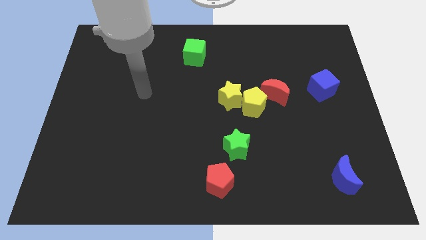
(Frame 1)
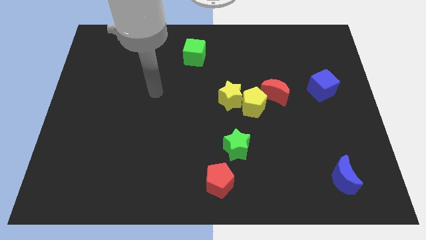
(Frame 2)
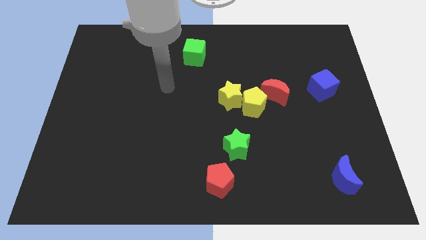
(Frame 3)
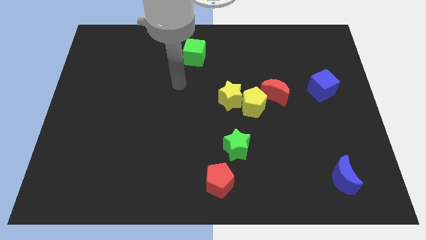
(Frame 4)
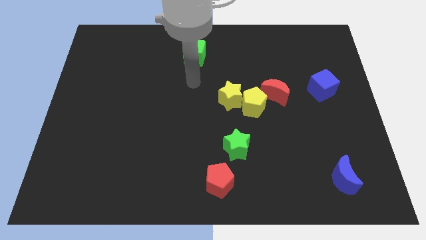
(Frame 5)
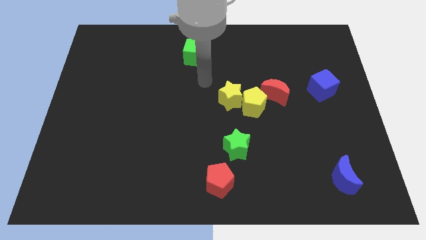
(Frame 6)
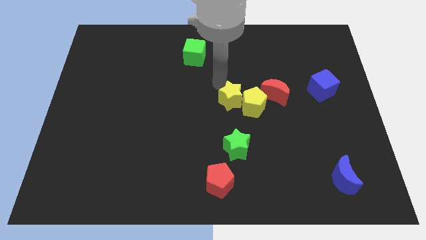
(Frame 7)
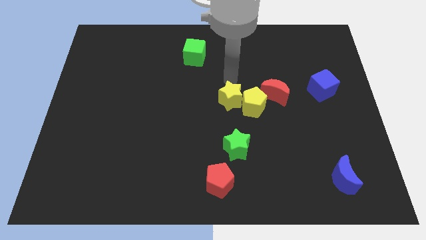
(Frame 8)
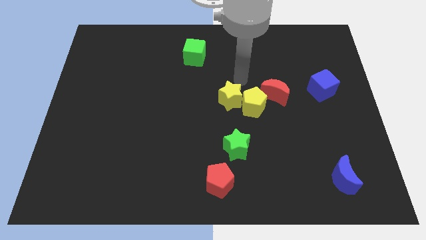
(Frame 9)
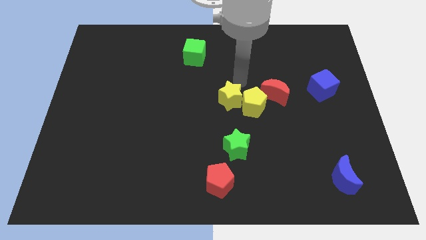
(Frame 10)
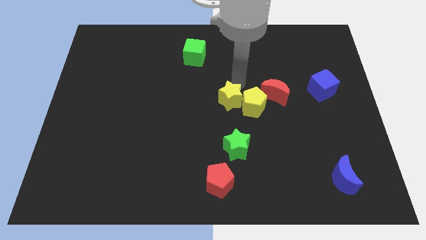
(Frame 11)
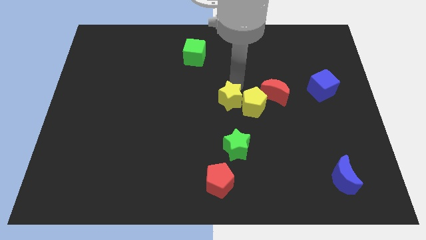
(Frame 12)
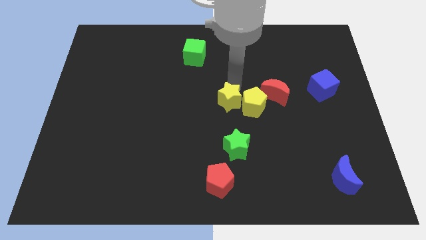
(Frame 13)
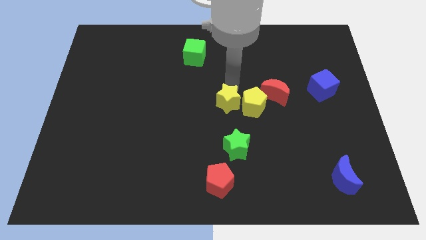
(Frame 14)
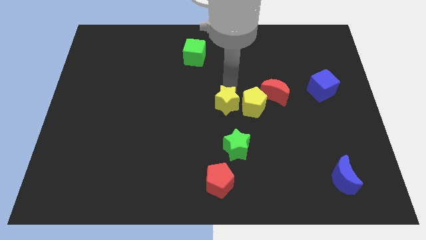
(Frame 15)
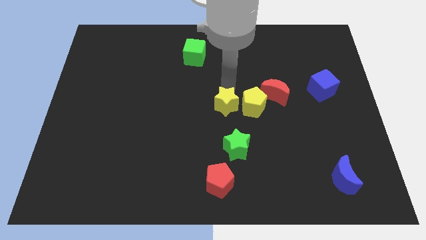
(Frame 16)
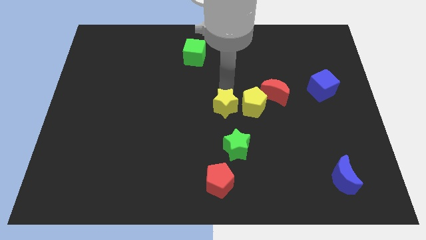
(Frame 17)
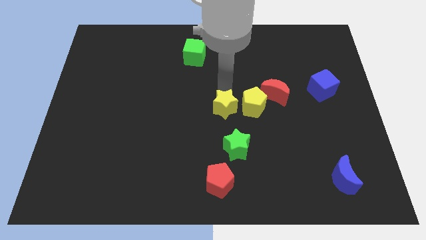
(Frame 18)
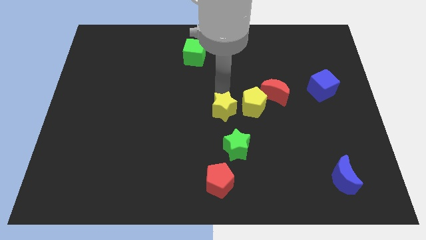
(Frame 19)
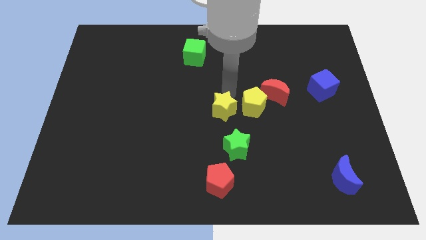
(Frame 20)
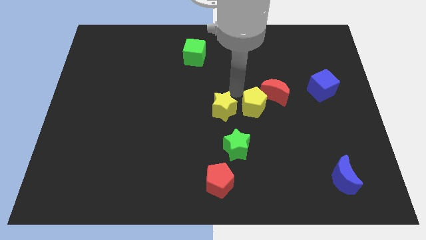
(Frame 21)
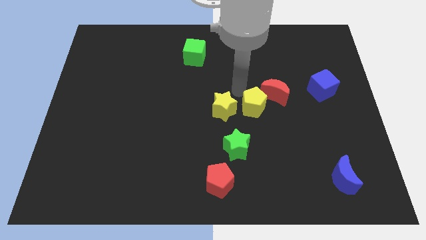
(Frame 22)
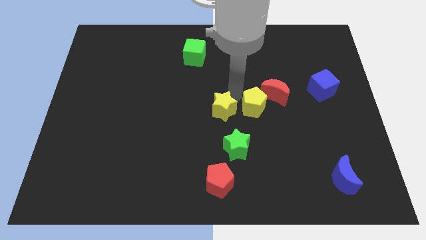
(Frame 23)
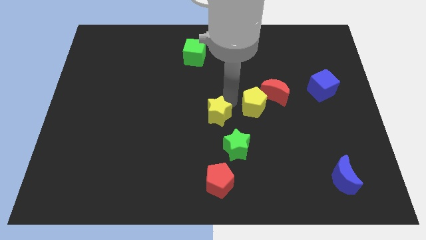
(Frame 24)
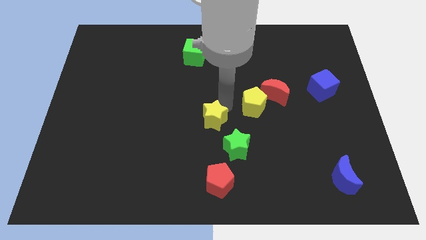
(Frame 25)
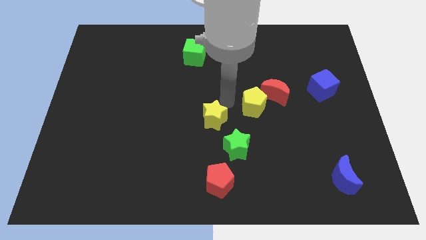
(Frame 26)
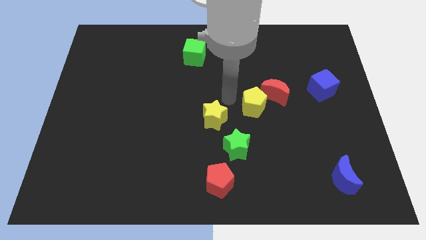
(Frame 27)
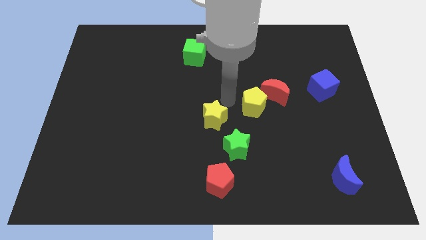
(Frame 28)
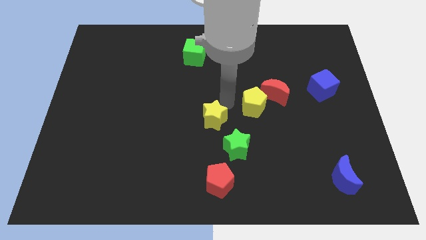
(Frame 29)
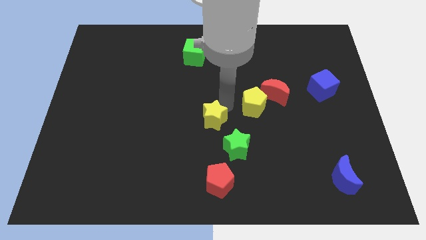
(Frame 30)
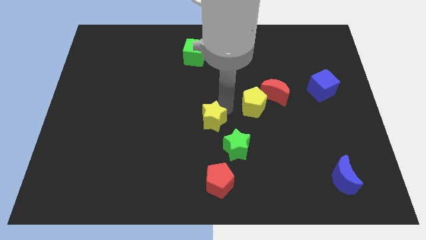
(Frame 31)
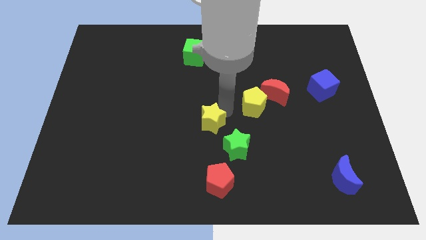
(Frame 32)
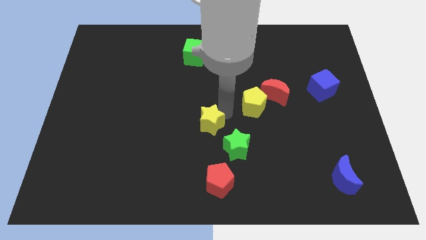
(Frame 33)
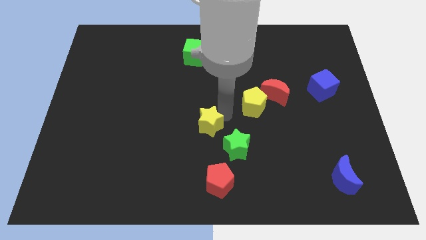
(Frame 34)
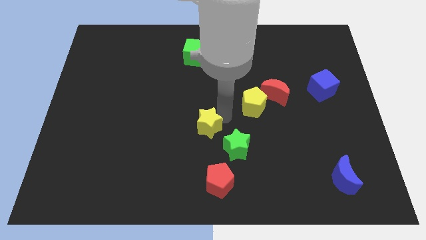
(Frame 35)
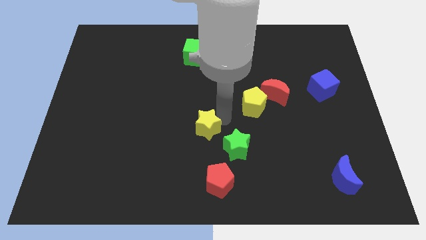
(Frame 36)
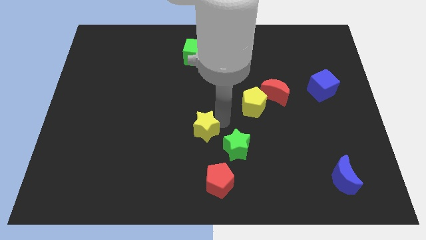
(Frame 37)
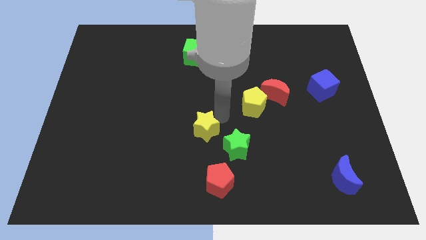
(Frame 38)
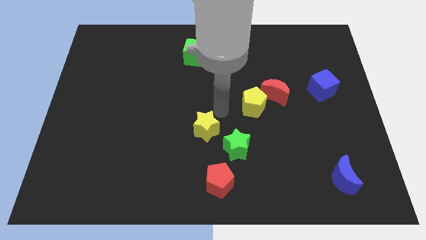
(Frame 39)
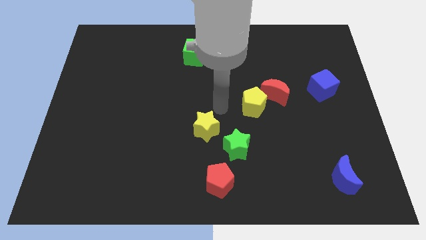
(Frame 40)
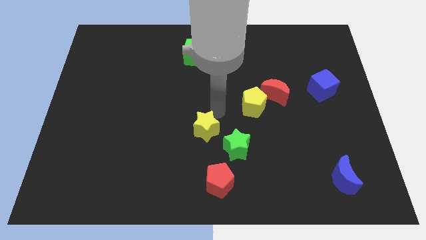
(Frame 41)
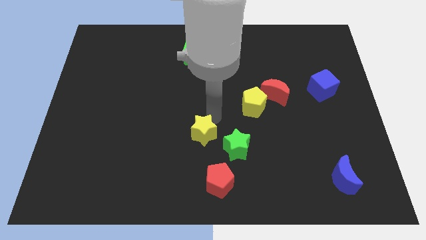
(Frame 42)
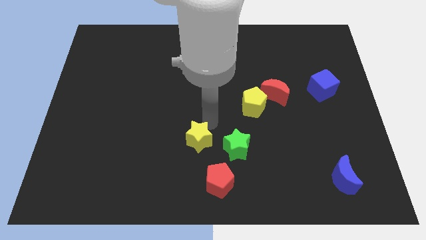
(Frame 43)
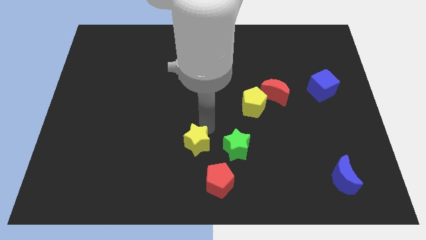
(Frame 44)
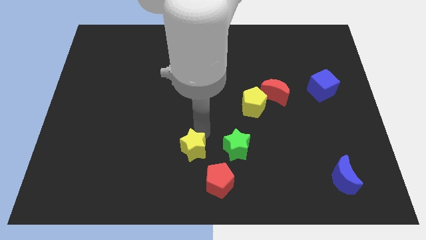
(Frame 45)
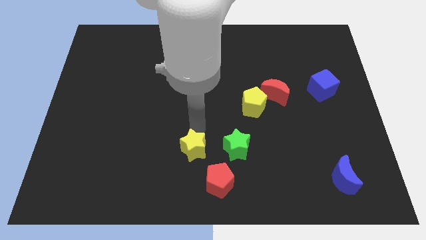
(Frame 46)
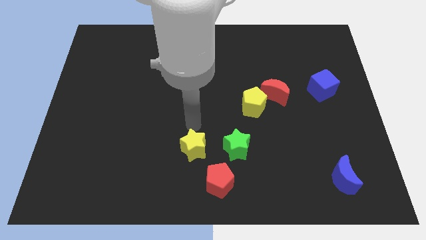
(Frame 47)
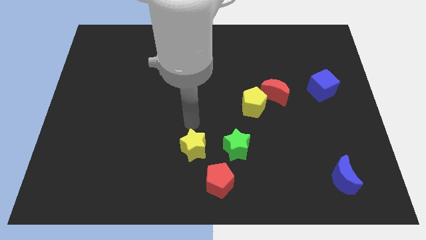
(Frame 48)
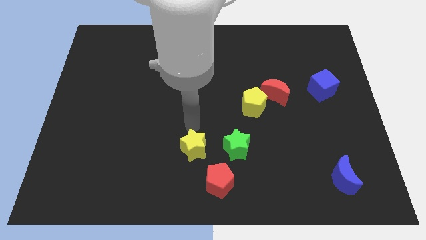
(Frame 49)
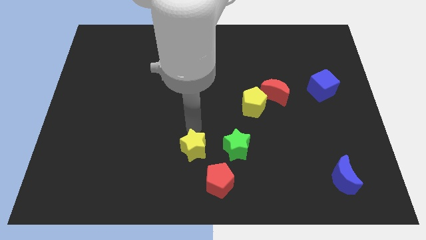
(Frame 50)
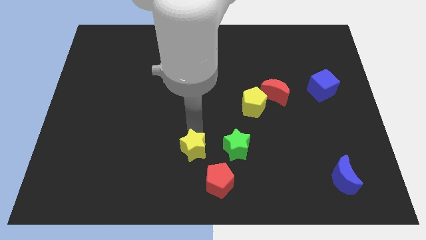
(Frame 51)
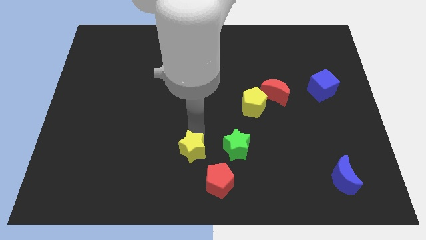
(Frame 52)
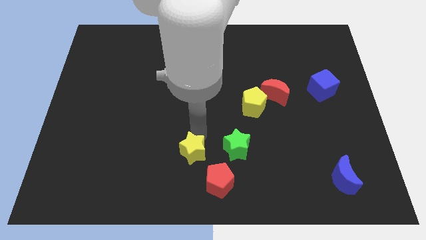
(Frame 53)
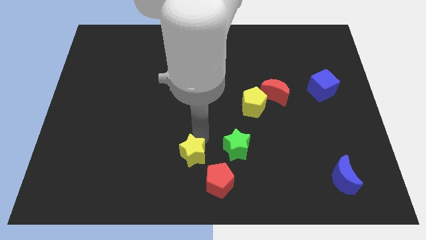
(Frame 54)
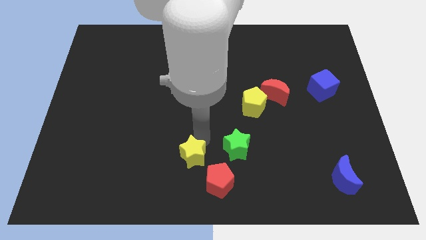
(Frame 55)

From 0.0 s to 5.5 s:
put the yellow star to the bottom side

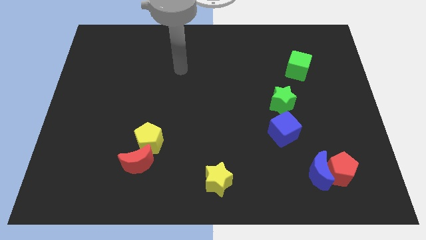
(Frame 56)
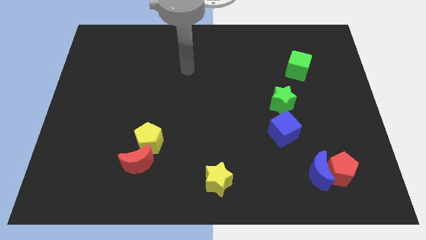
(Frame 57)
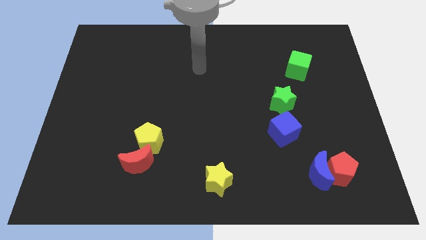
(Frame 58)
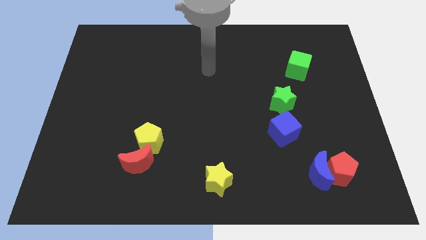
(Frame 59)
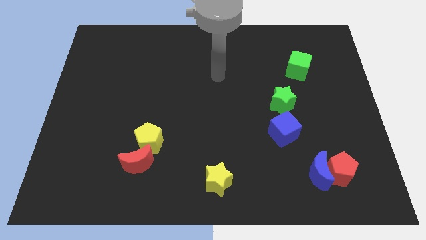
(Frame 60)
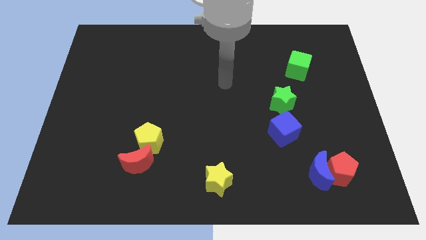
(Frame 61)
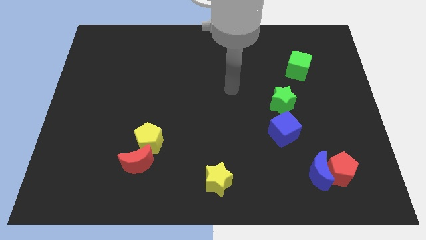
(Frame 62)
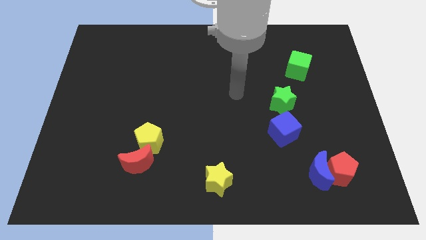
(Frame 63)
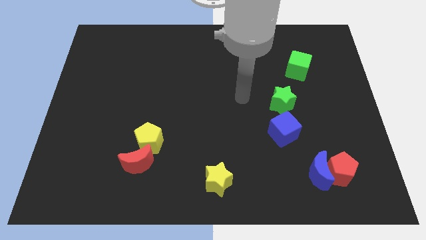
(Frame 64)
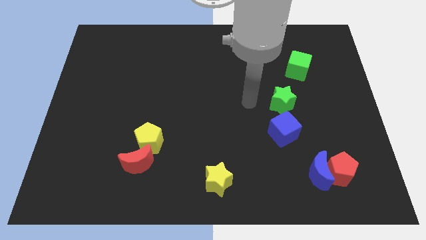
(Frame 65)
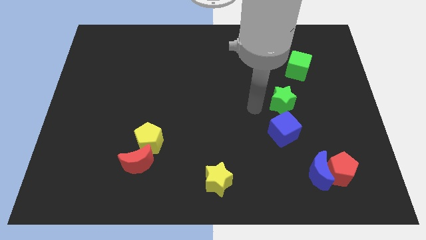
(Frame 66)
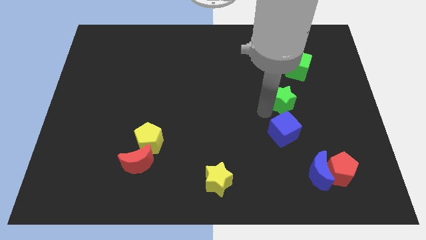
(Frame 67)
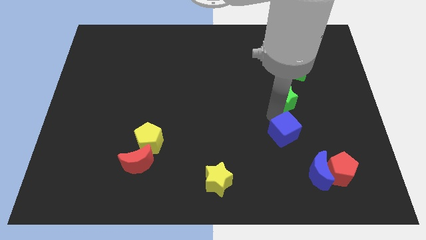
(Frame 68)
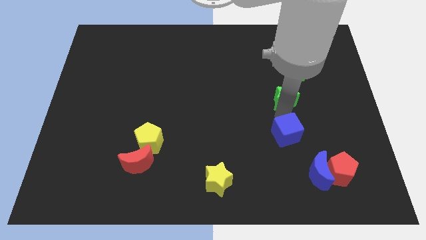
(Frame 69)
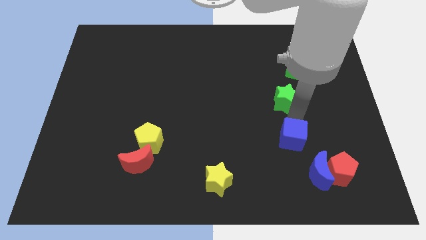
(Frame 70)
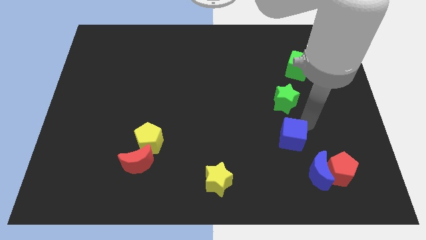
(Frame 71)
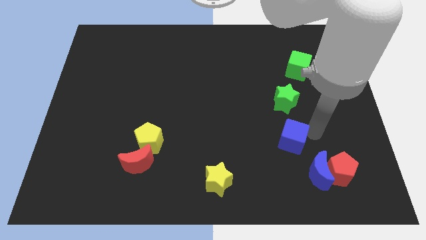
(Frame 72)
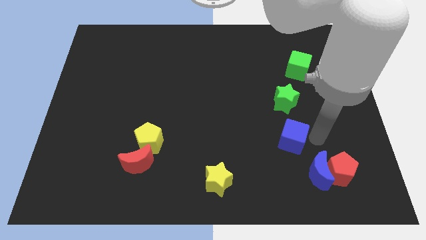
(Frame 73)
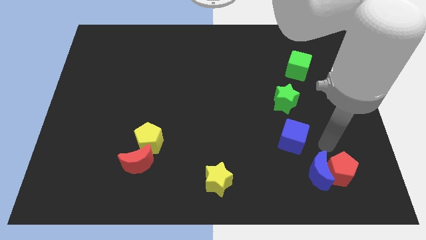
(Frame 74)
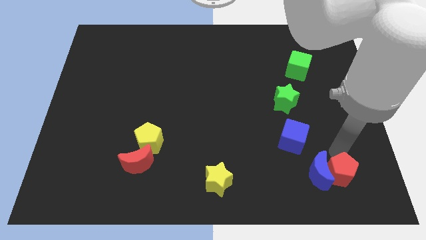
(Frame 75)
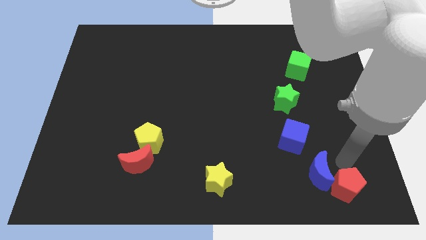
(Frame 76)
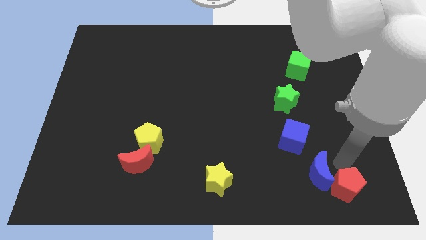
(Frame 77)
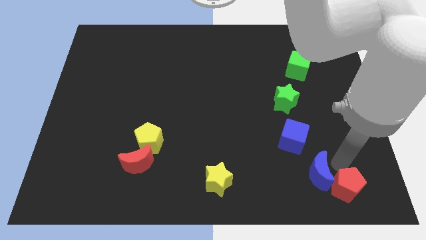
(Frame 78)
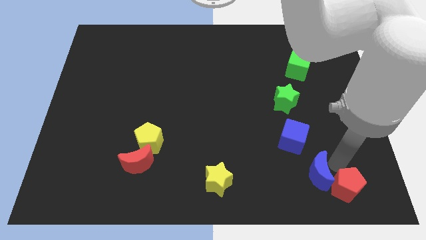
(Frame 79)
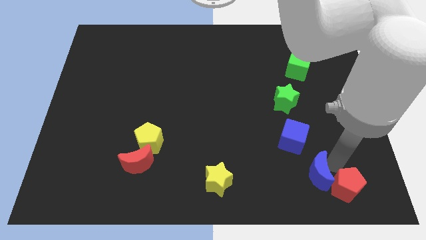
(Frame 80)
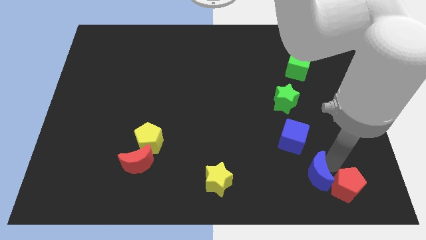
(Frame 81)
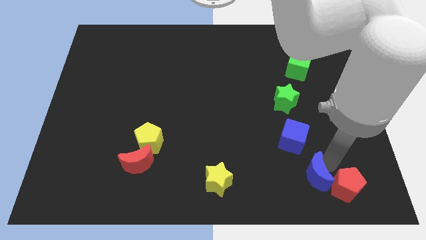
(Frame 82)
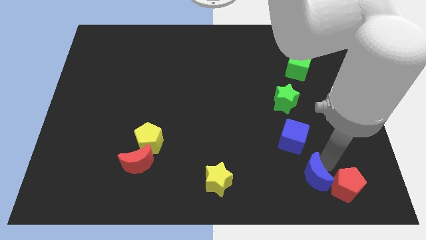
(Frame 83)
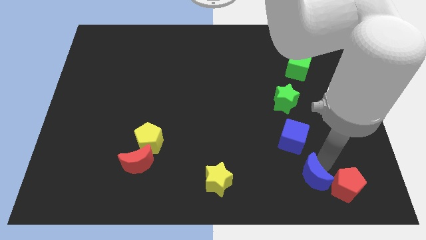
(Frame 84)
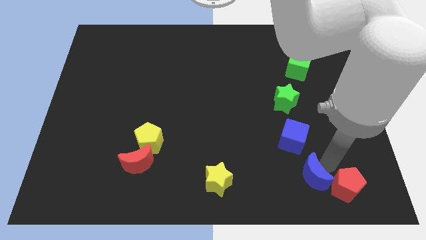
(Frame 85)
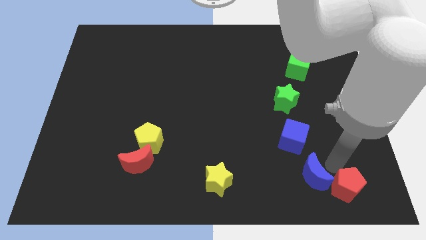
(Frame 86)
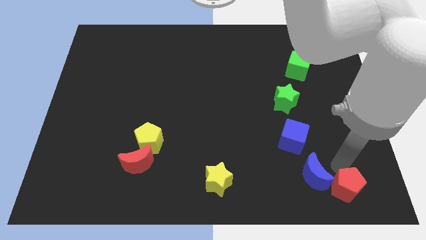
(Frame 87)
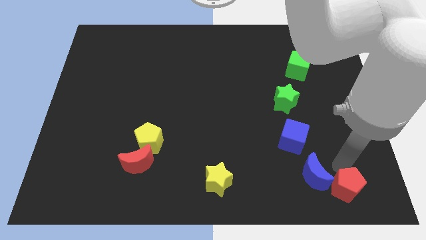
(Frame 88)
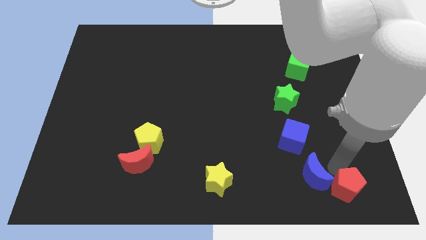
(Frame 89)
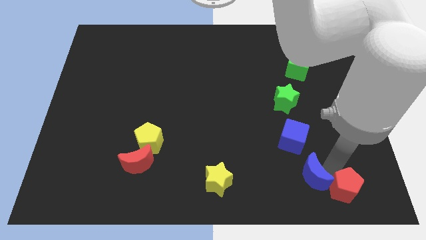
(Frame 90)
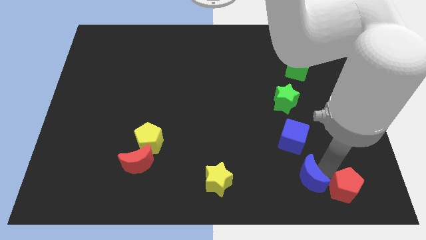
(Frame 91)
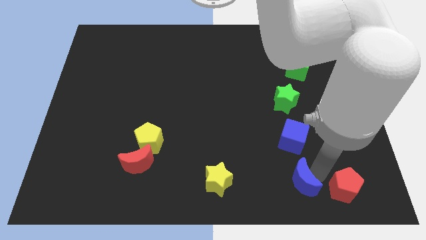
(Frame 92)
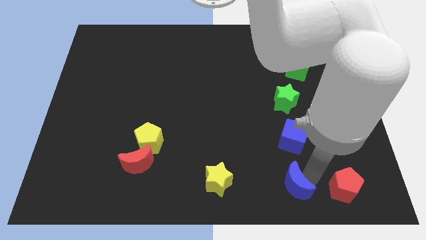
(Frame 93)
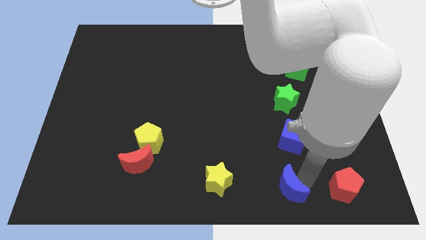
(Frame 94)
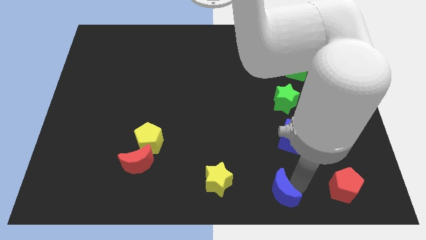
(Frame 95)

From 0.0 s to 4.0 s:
put the blue moon to the bottom side
